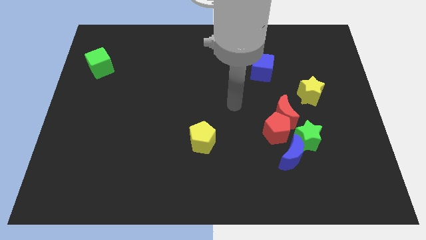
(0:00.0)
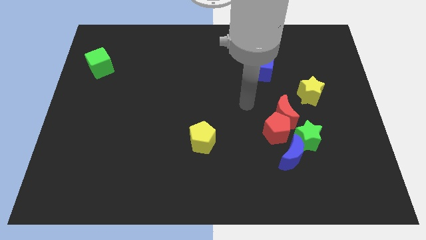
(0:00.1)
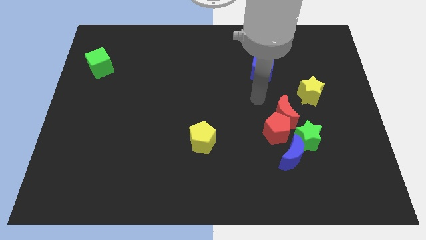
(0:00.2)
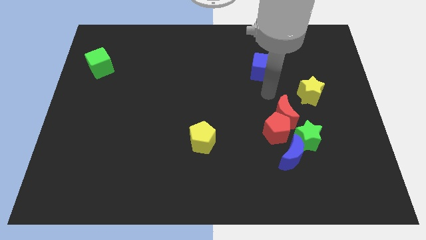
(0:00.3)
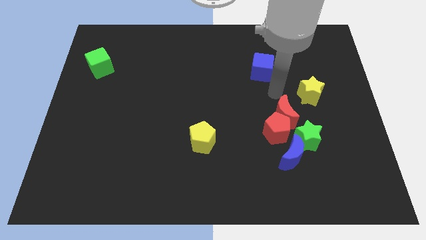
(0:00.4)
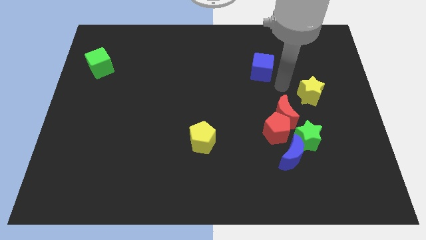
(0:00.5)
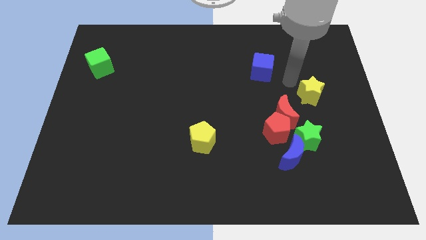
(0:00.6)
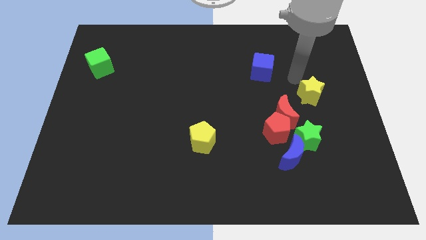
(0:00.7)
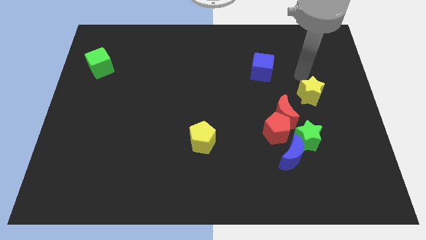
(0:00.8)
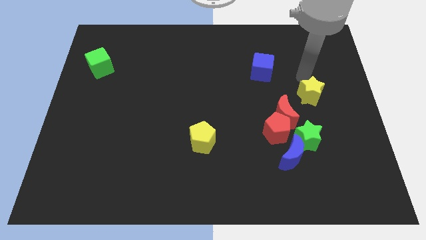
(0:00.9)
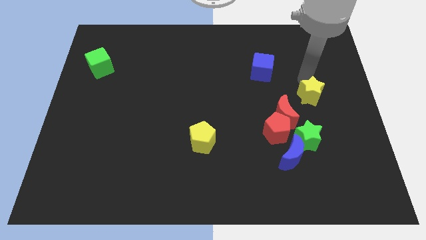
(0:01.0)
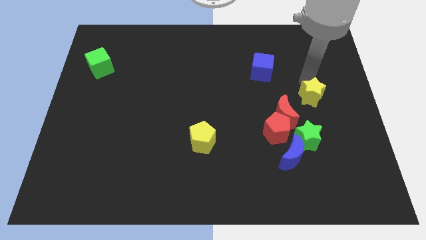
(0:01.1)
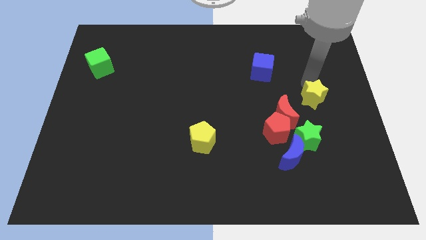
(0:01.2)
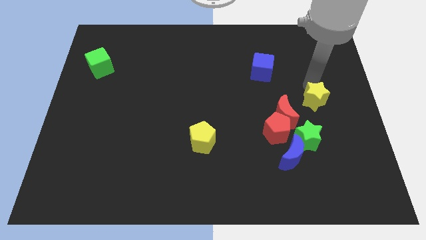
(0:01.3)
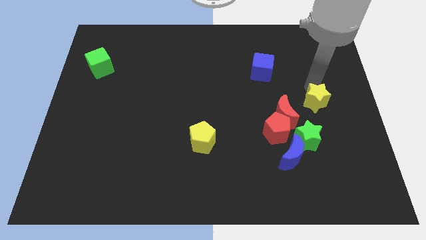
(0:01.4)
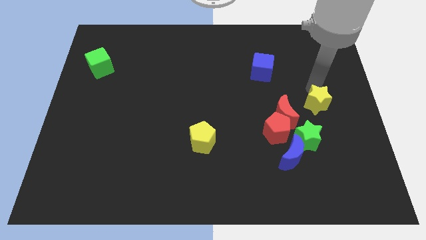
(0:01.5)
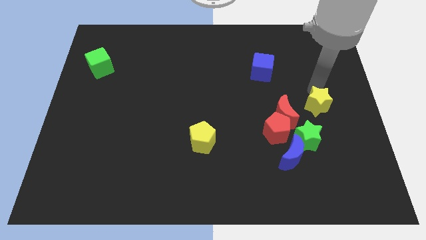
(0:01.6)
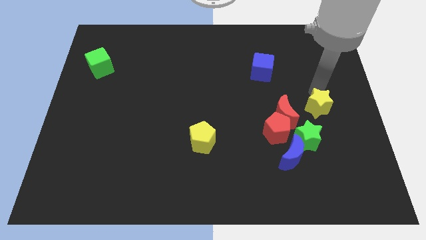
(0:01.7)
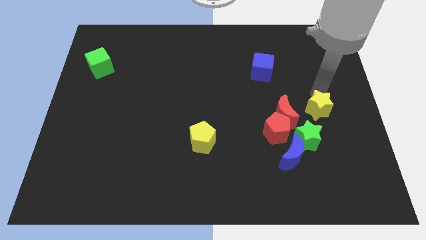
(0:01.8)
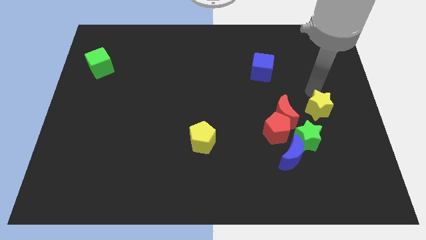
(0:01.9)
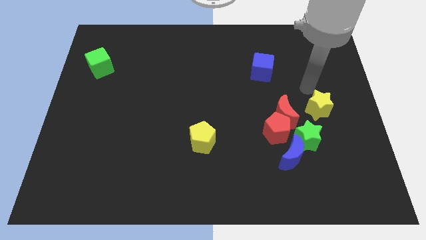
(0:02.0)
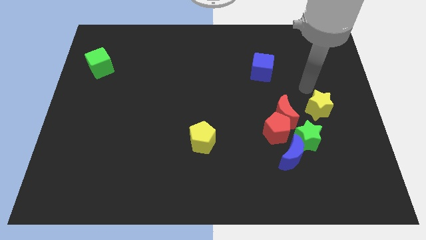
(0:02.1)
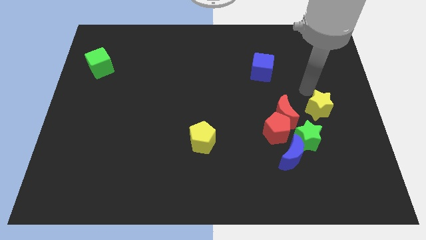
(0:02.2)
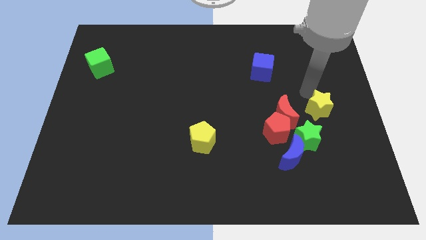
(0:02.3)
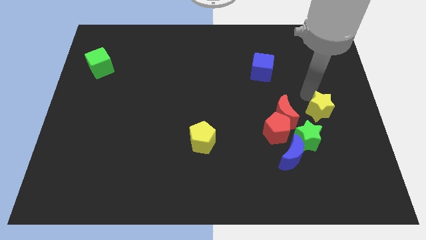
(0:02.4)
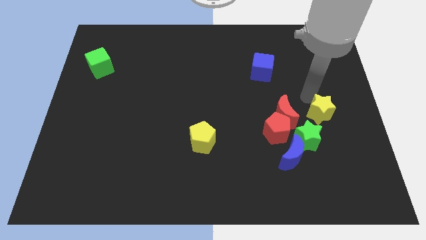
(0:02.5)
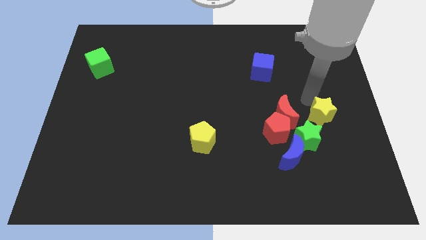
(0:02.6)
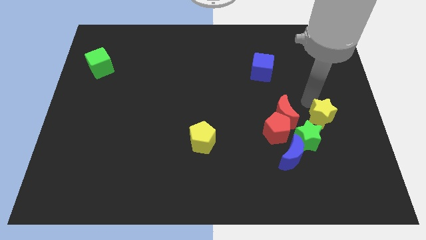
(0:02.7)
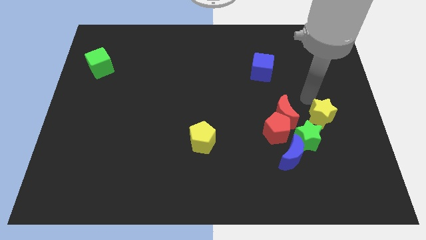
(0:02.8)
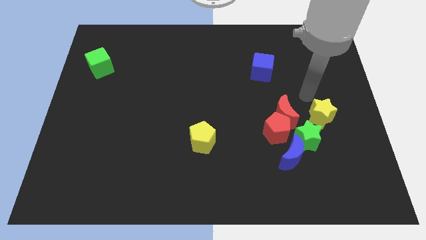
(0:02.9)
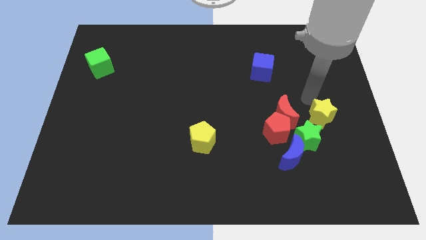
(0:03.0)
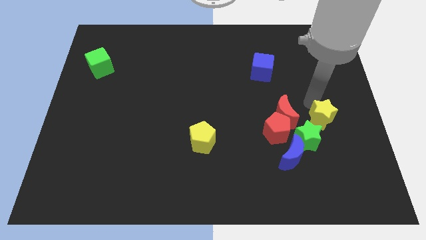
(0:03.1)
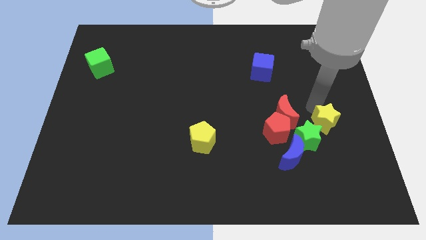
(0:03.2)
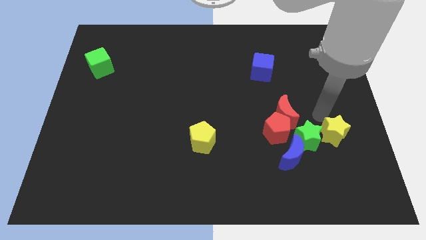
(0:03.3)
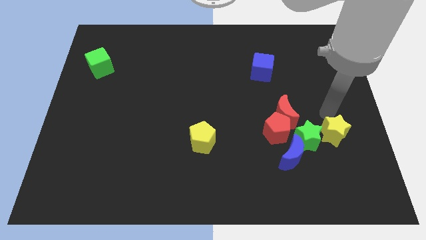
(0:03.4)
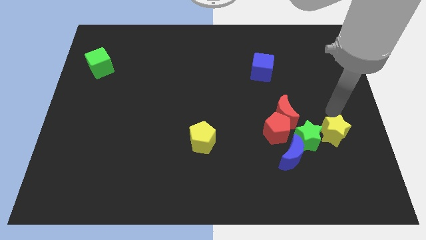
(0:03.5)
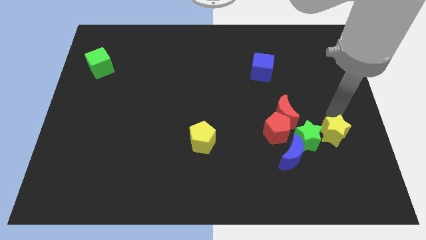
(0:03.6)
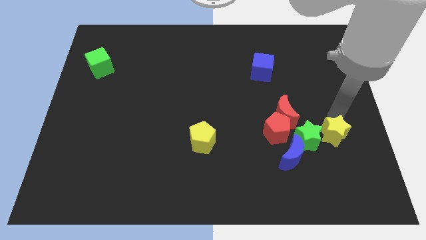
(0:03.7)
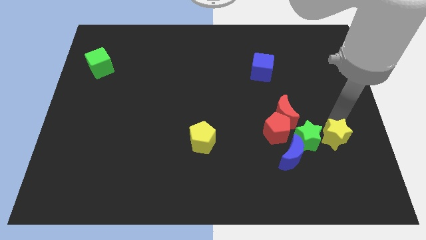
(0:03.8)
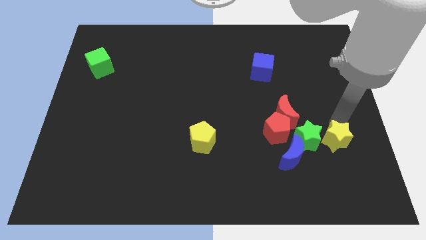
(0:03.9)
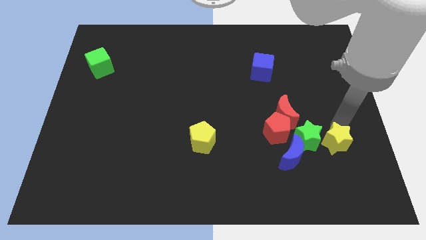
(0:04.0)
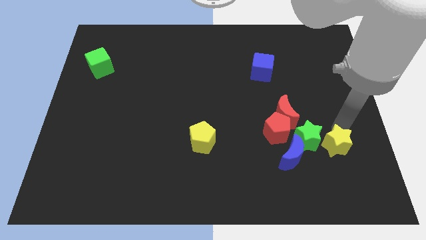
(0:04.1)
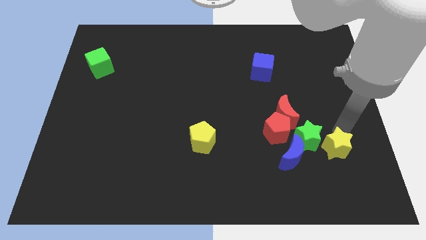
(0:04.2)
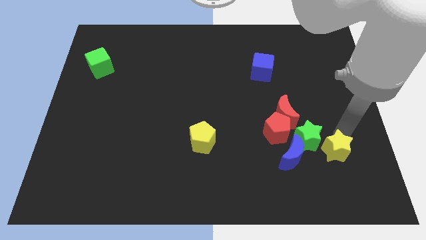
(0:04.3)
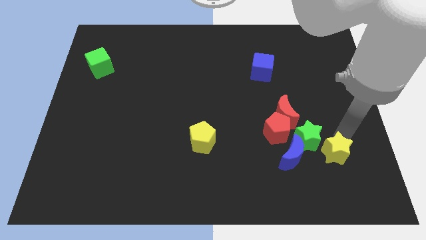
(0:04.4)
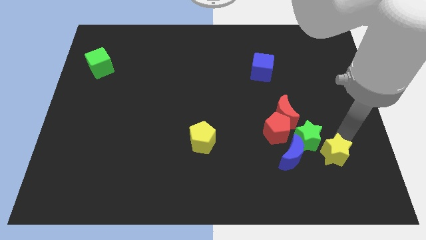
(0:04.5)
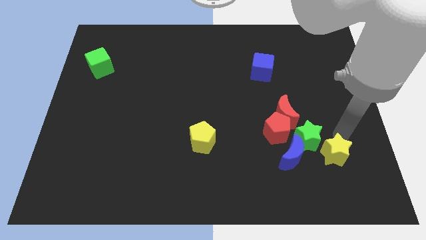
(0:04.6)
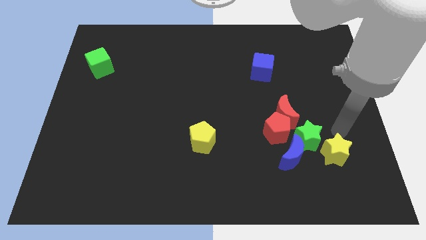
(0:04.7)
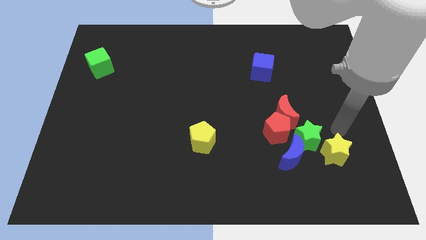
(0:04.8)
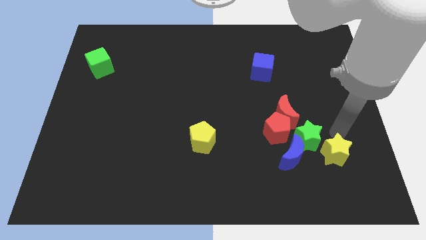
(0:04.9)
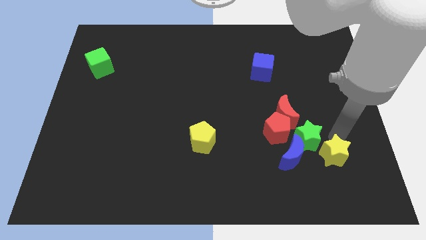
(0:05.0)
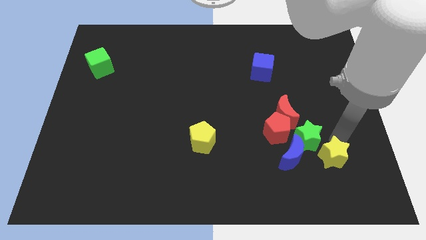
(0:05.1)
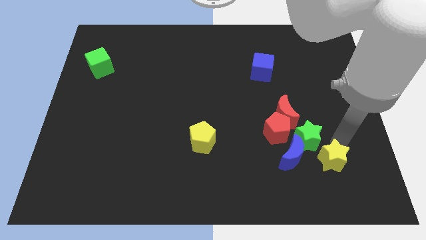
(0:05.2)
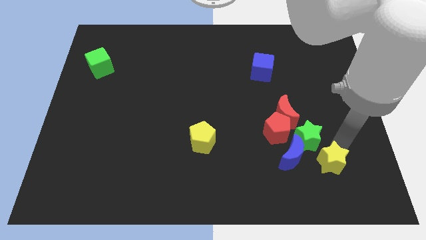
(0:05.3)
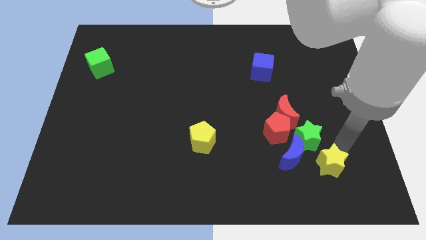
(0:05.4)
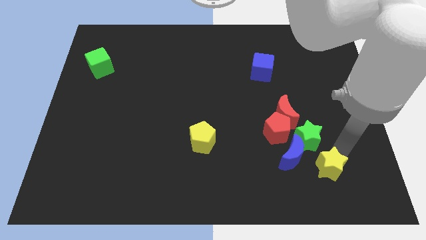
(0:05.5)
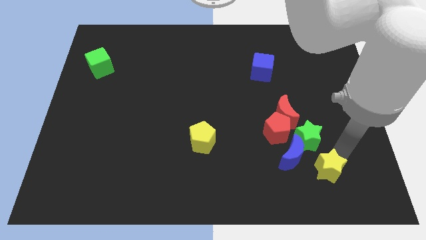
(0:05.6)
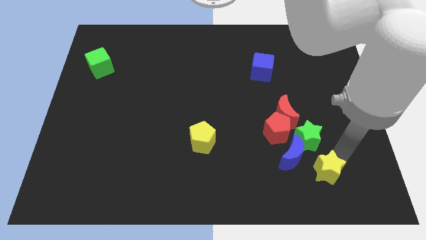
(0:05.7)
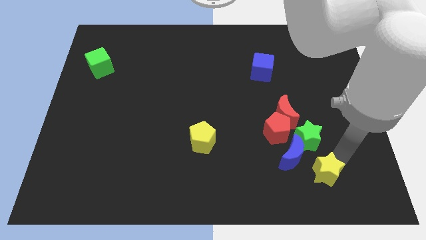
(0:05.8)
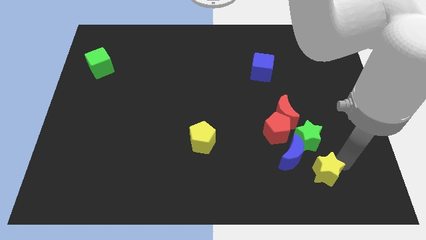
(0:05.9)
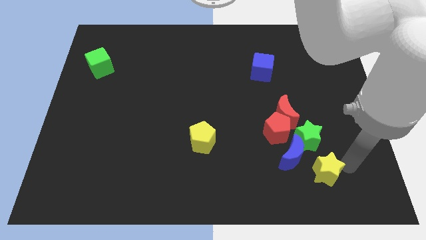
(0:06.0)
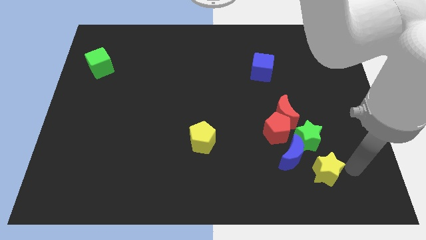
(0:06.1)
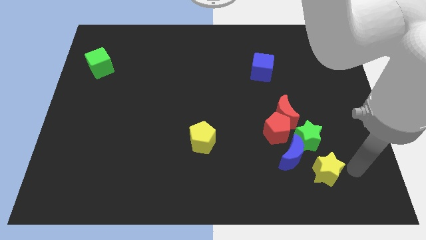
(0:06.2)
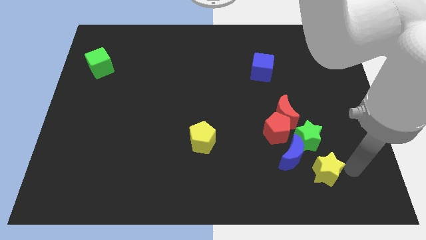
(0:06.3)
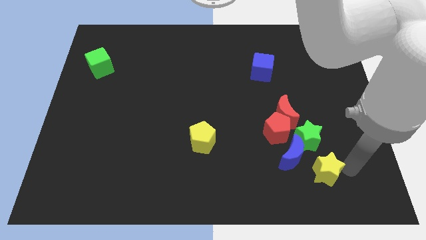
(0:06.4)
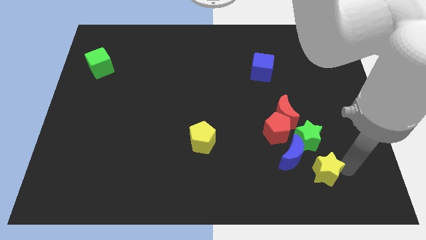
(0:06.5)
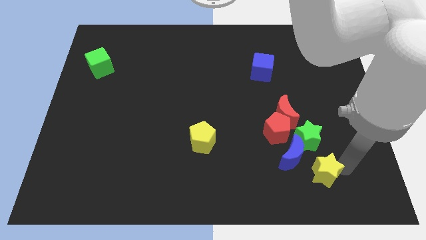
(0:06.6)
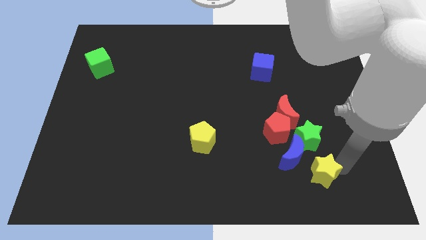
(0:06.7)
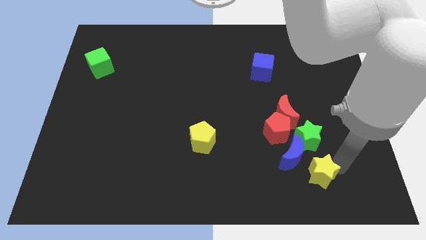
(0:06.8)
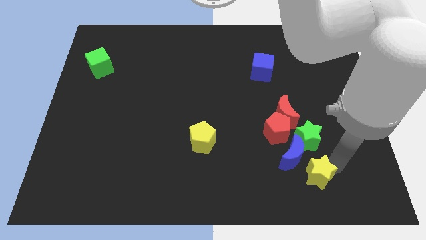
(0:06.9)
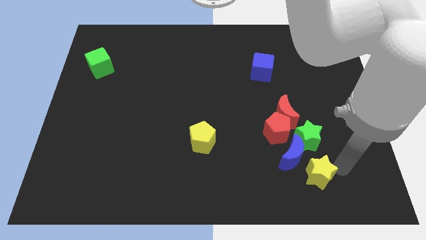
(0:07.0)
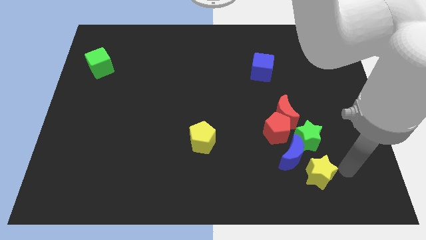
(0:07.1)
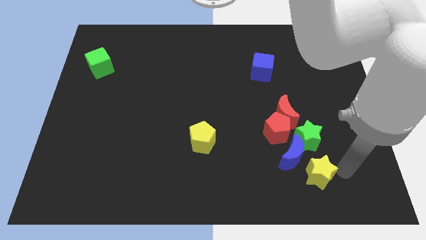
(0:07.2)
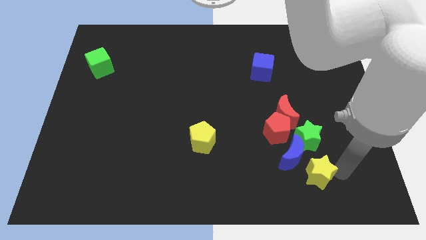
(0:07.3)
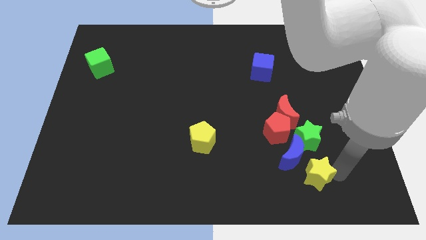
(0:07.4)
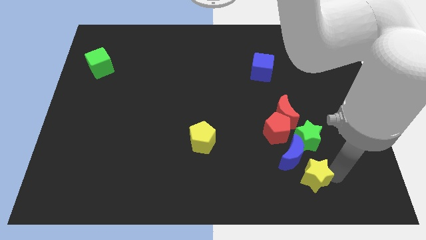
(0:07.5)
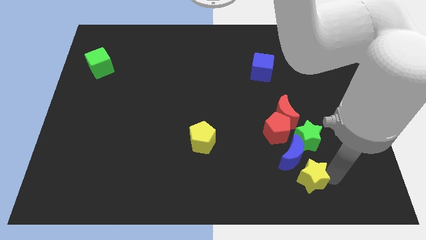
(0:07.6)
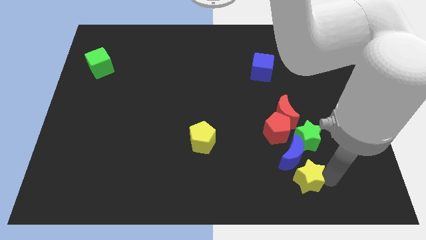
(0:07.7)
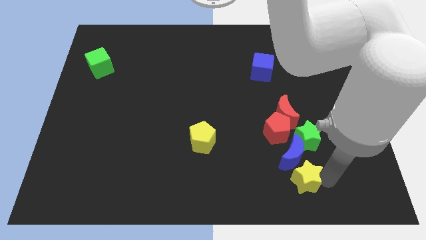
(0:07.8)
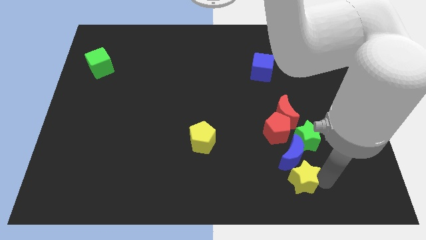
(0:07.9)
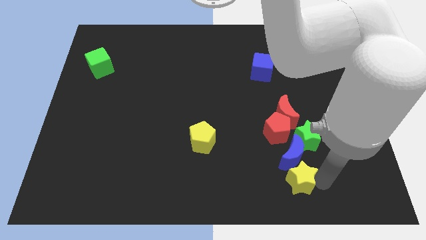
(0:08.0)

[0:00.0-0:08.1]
slide the yellow star diagonally down and to the left of the green star
